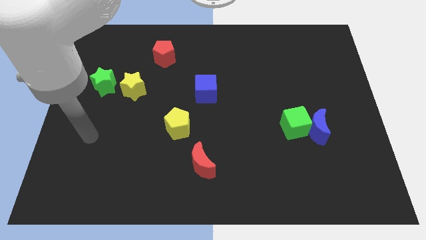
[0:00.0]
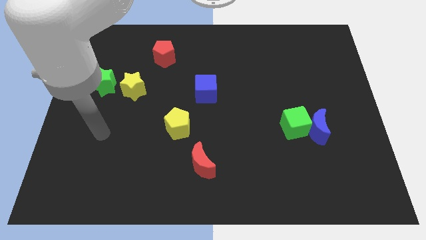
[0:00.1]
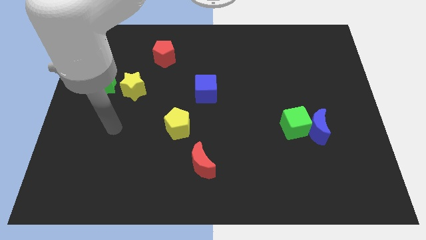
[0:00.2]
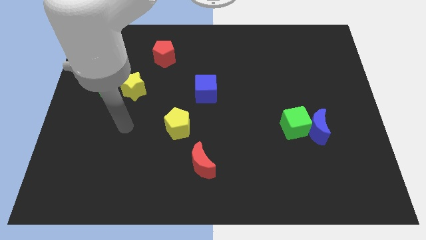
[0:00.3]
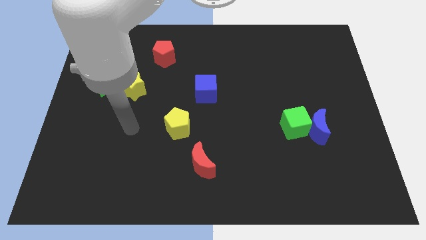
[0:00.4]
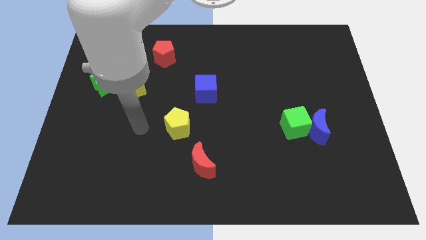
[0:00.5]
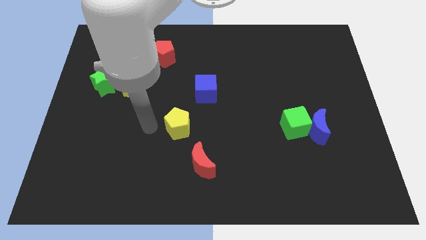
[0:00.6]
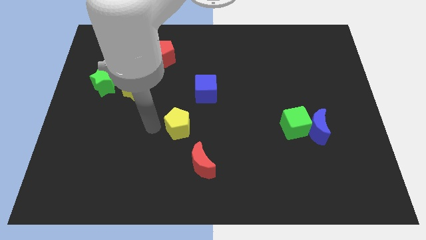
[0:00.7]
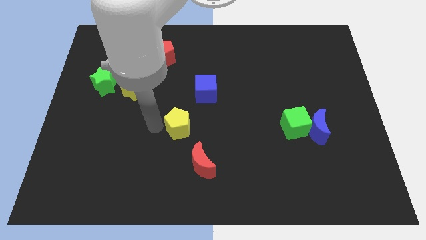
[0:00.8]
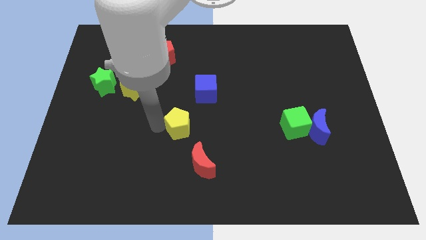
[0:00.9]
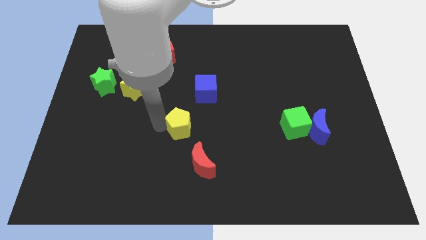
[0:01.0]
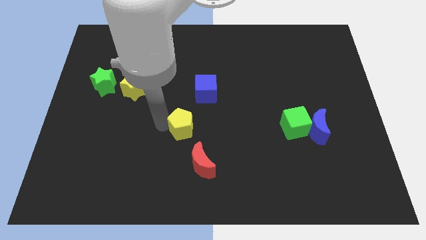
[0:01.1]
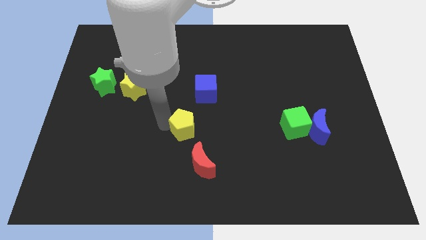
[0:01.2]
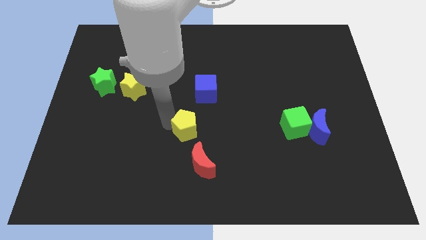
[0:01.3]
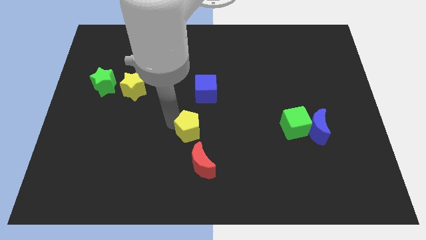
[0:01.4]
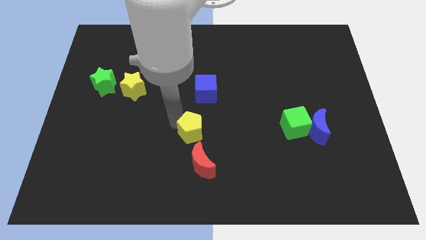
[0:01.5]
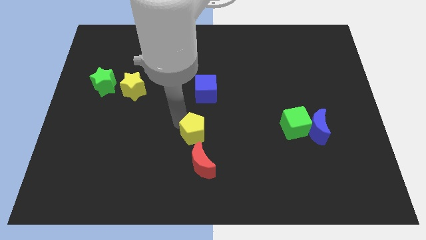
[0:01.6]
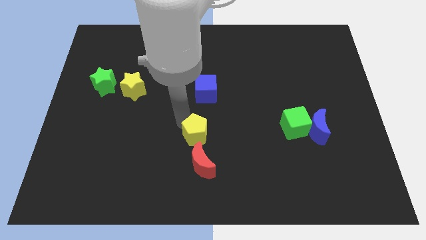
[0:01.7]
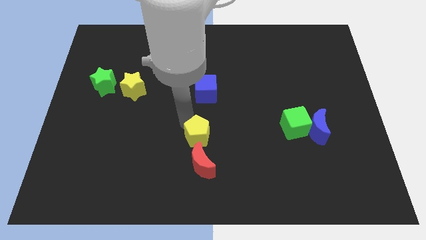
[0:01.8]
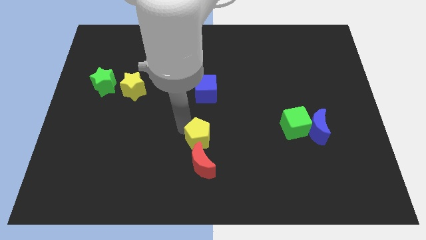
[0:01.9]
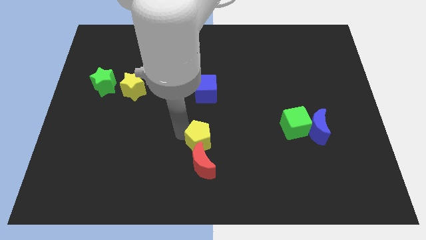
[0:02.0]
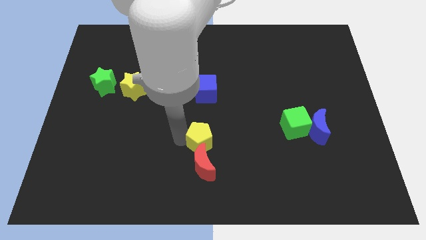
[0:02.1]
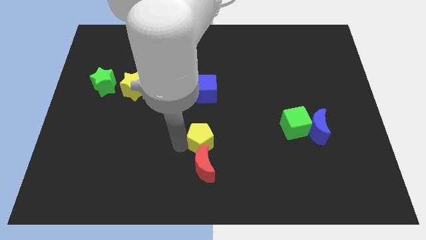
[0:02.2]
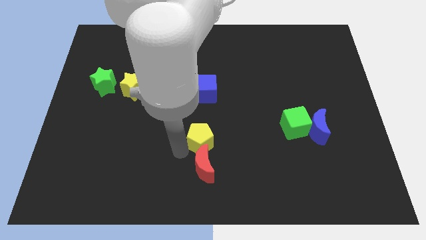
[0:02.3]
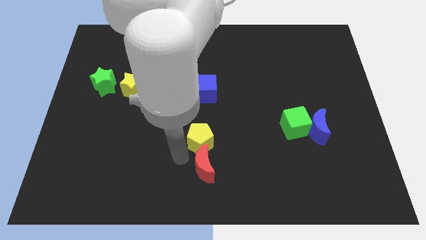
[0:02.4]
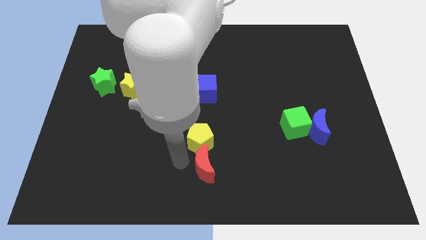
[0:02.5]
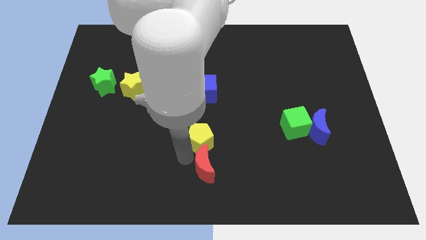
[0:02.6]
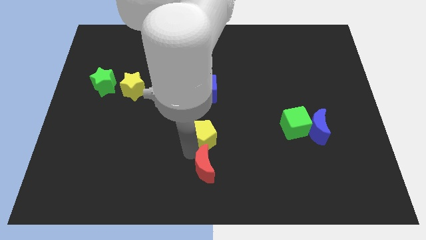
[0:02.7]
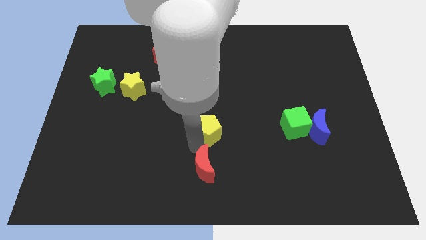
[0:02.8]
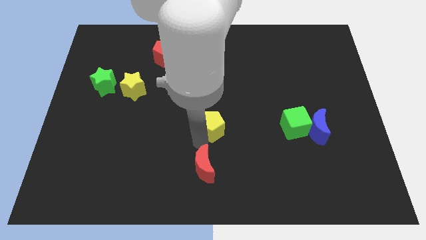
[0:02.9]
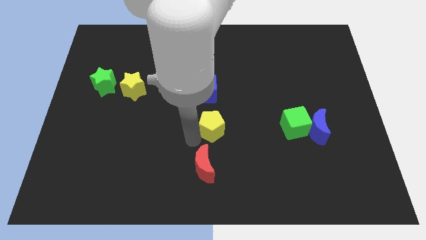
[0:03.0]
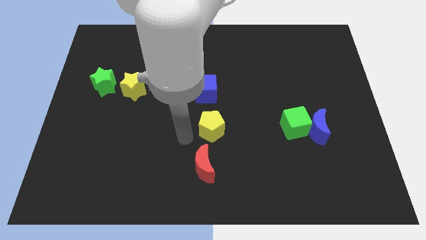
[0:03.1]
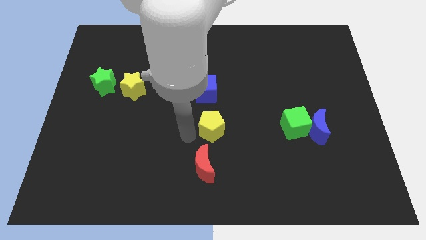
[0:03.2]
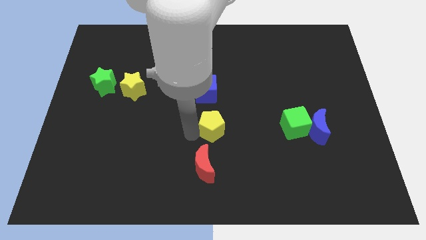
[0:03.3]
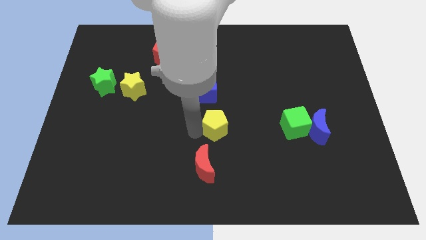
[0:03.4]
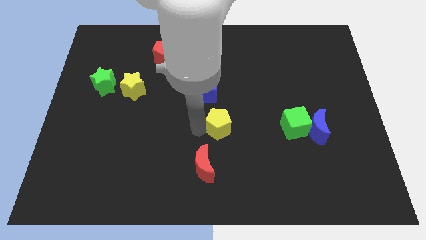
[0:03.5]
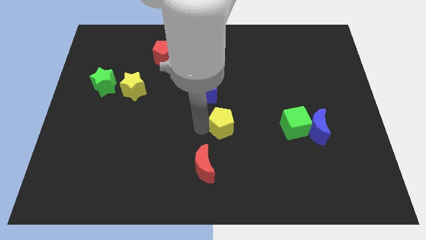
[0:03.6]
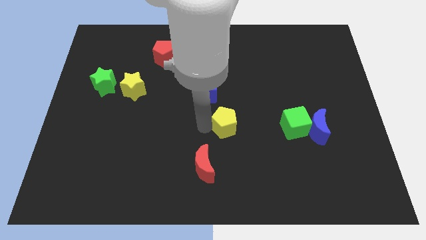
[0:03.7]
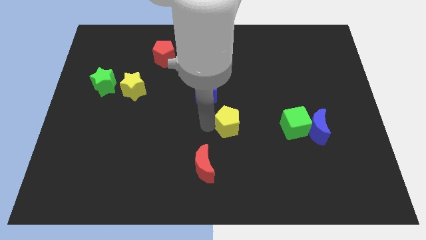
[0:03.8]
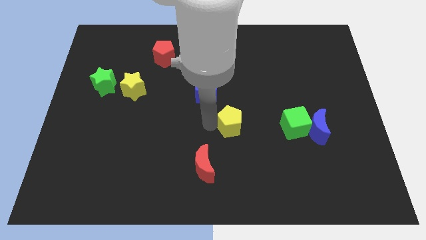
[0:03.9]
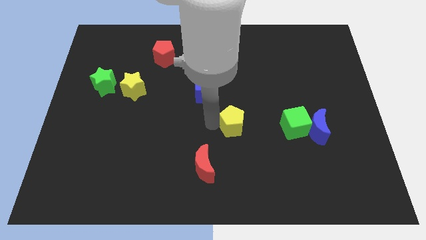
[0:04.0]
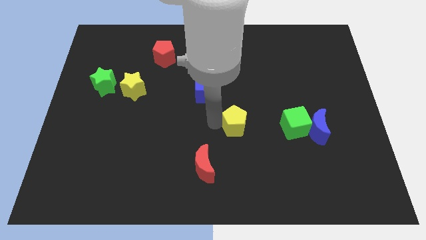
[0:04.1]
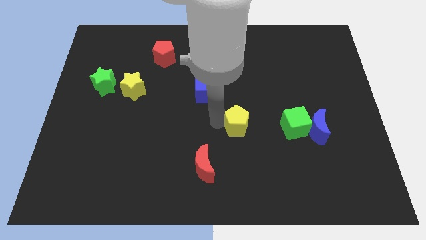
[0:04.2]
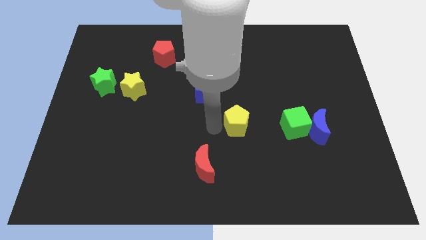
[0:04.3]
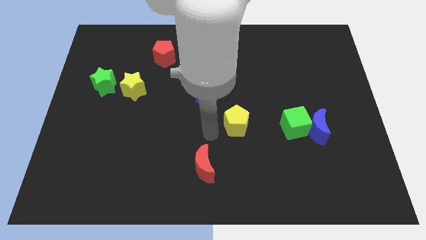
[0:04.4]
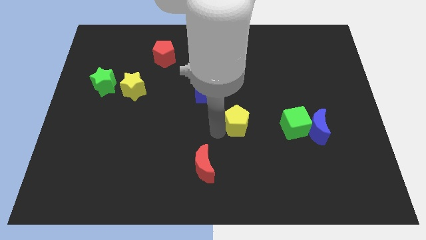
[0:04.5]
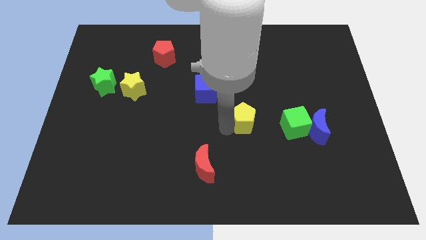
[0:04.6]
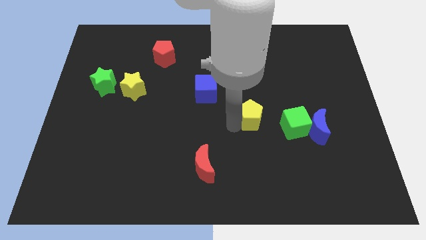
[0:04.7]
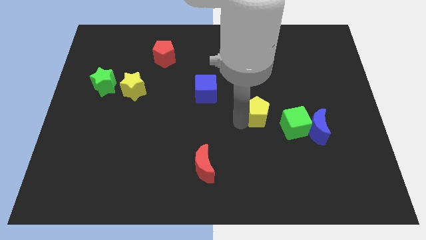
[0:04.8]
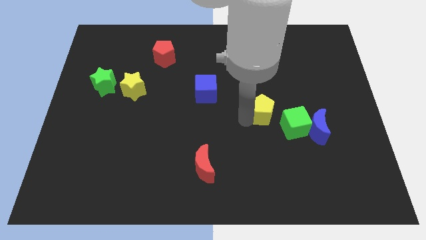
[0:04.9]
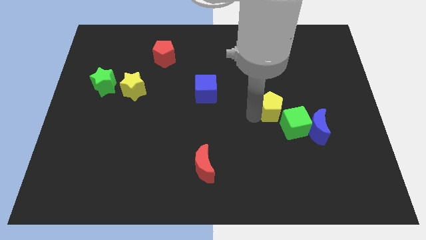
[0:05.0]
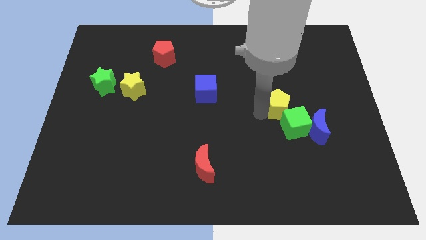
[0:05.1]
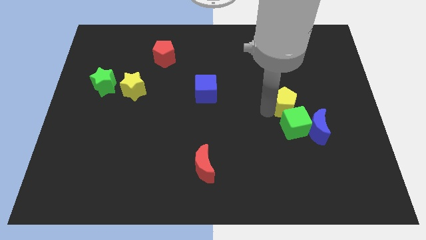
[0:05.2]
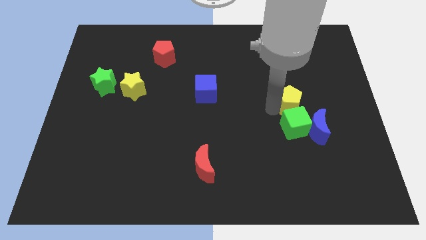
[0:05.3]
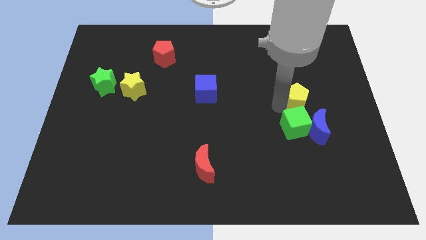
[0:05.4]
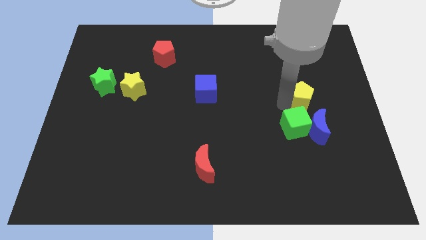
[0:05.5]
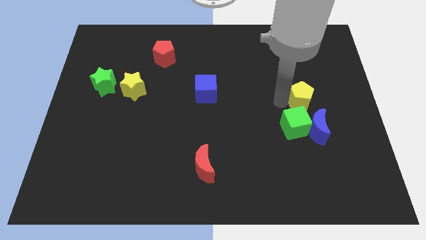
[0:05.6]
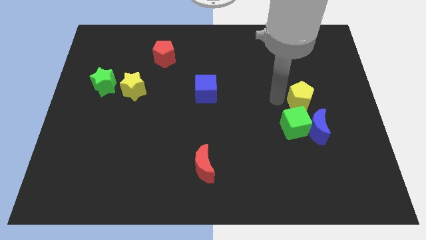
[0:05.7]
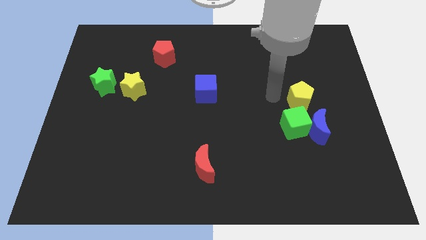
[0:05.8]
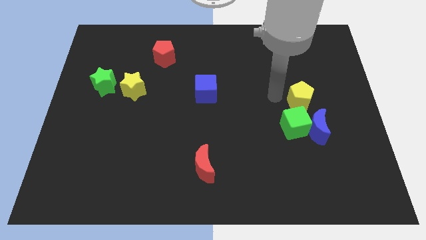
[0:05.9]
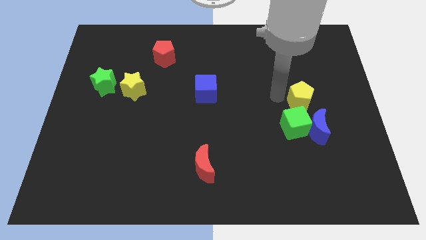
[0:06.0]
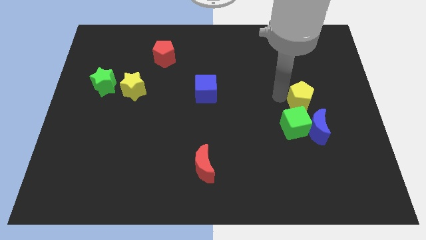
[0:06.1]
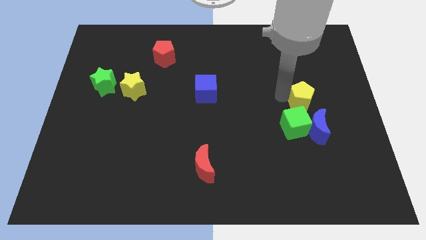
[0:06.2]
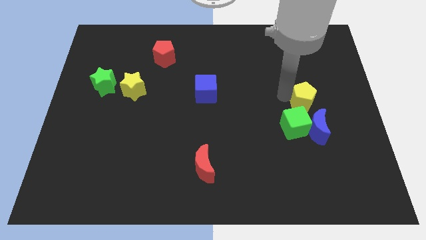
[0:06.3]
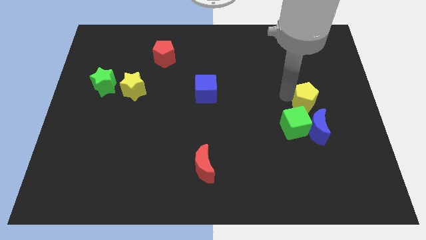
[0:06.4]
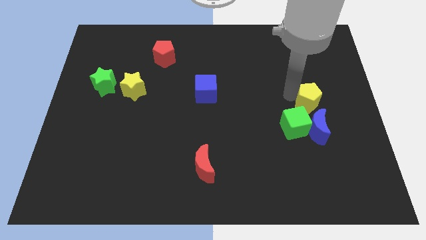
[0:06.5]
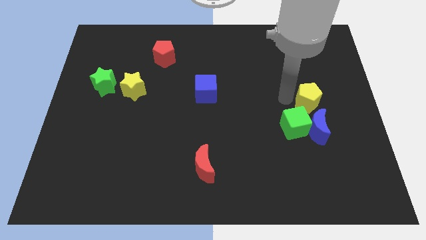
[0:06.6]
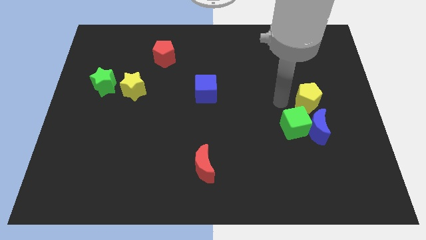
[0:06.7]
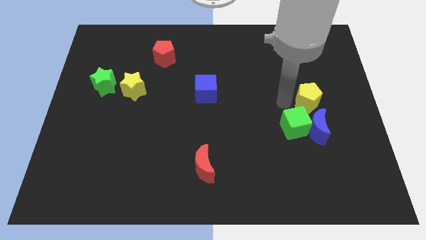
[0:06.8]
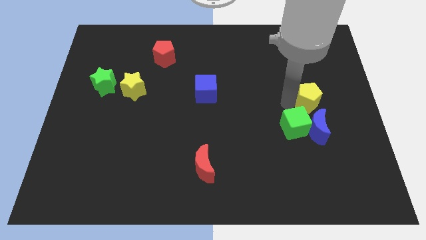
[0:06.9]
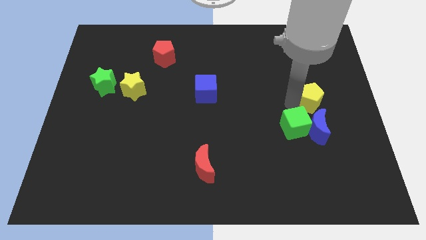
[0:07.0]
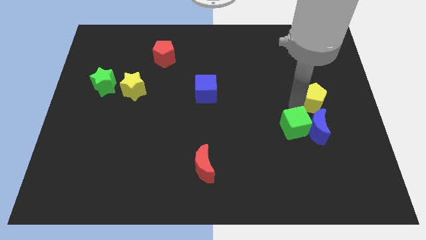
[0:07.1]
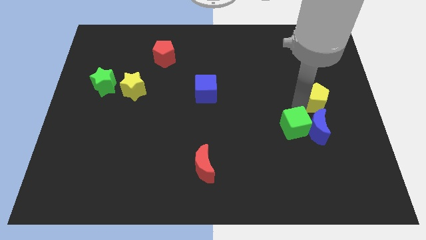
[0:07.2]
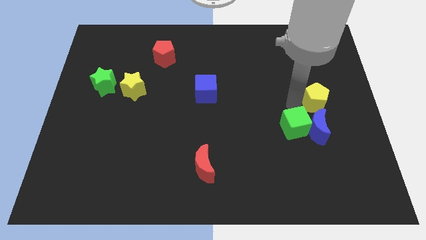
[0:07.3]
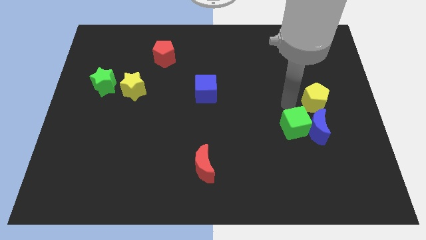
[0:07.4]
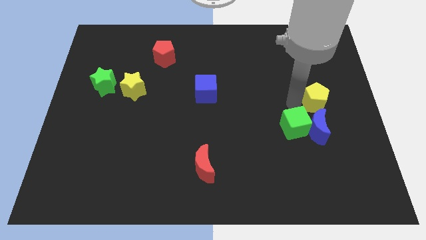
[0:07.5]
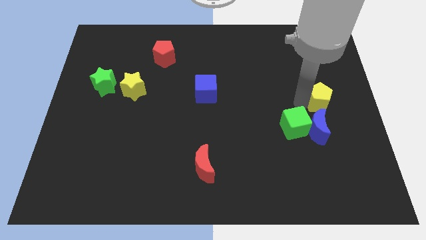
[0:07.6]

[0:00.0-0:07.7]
move the yellow pentagon to the right side of the board
